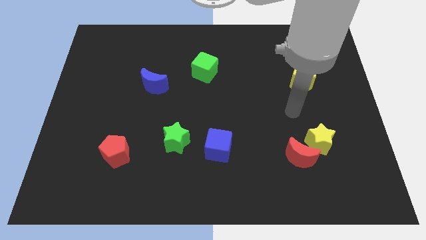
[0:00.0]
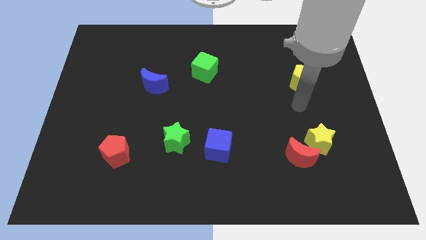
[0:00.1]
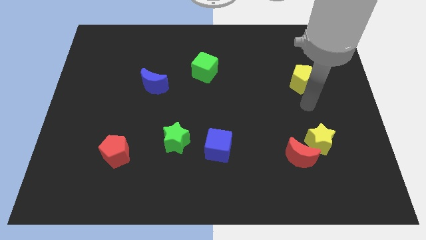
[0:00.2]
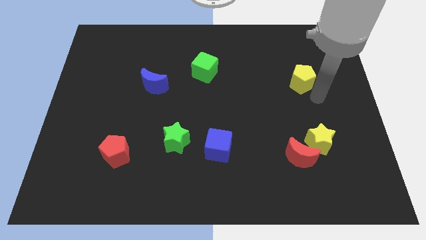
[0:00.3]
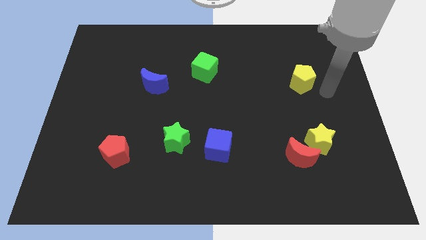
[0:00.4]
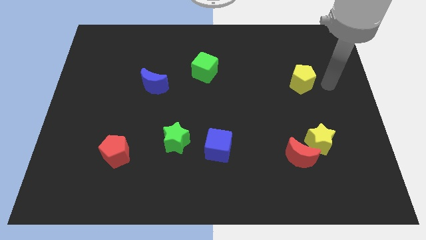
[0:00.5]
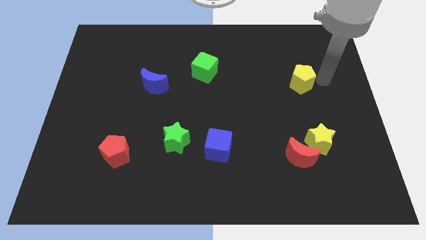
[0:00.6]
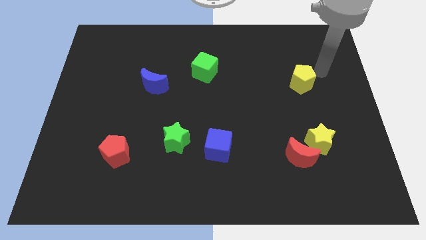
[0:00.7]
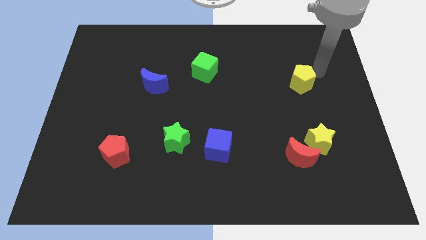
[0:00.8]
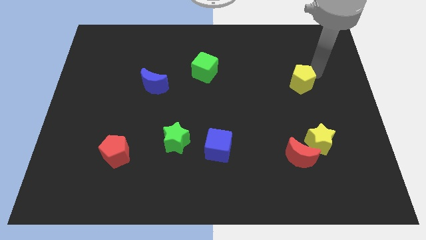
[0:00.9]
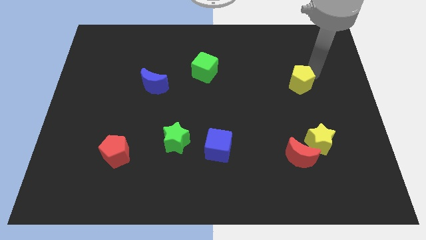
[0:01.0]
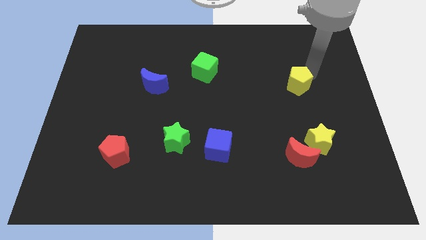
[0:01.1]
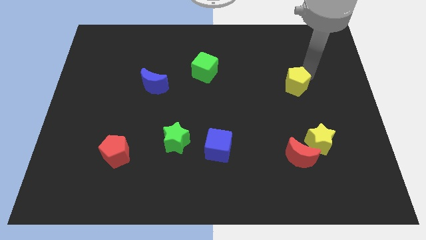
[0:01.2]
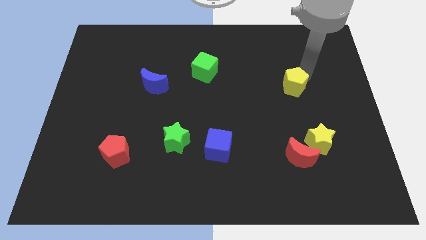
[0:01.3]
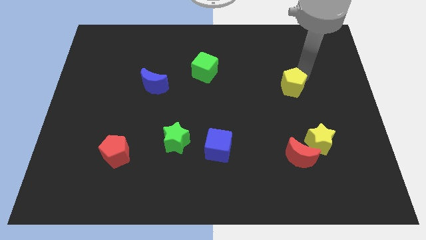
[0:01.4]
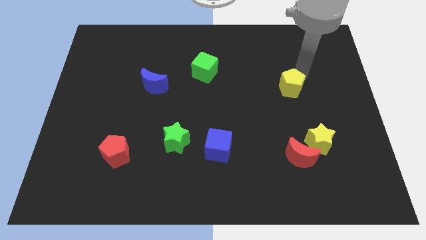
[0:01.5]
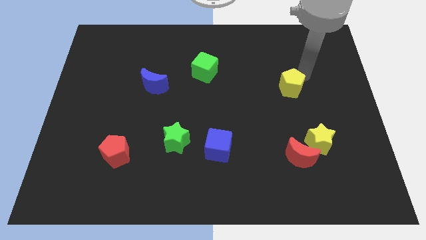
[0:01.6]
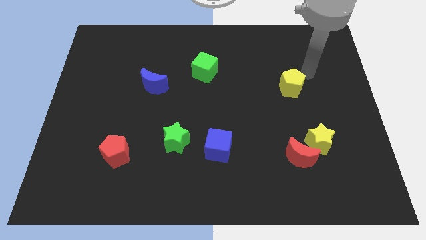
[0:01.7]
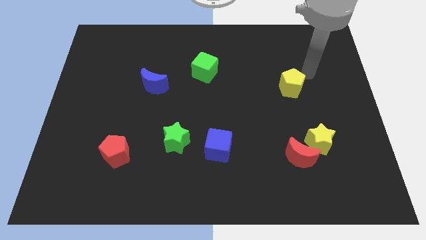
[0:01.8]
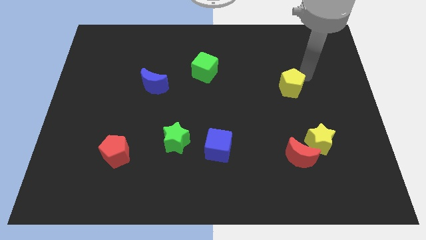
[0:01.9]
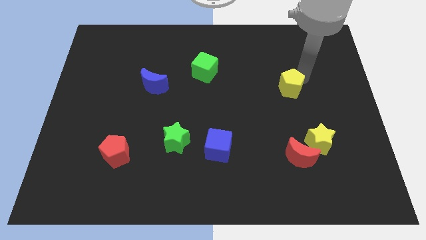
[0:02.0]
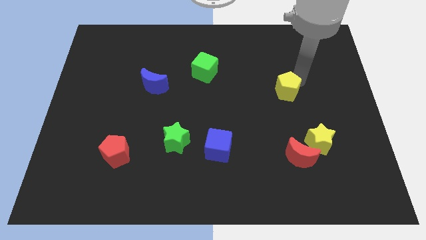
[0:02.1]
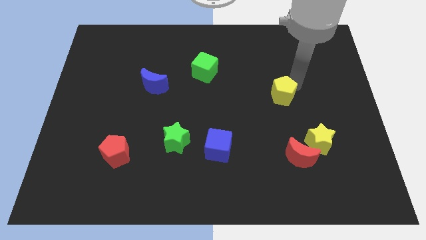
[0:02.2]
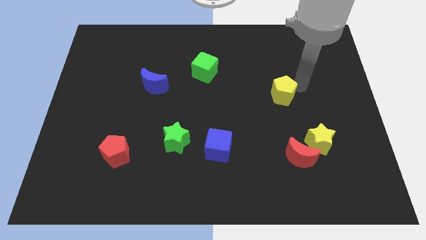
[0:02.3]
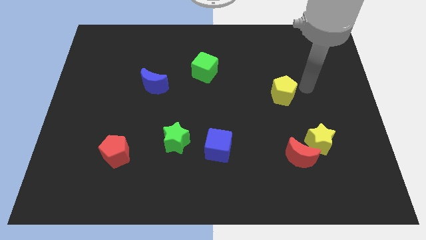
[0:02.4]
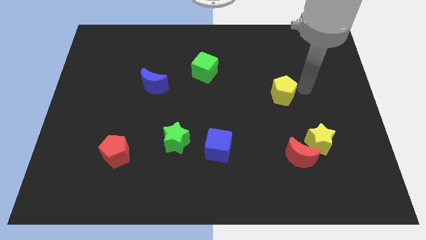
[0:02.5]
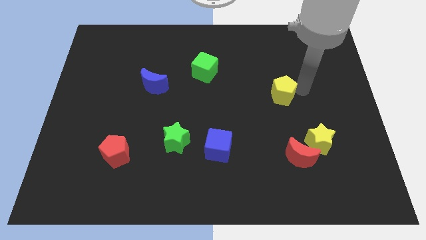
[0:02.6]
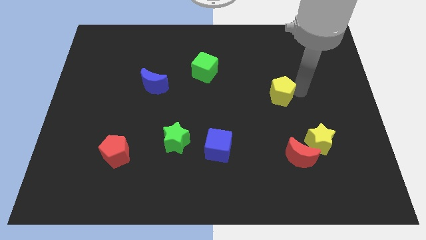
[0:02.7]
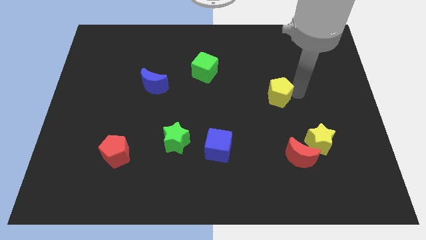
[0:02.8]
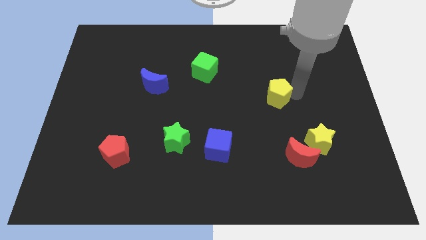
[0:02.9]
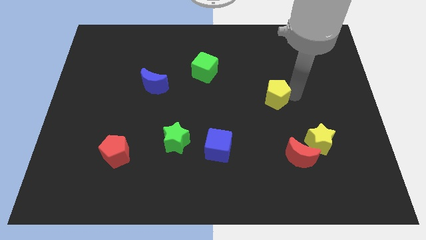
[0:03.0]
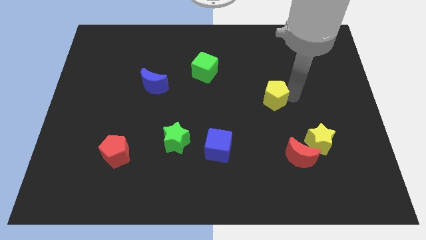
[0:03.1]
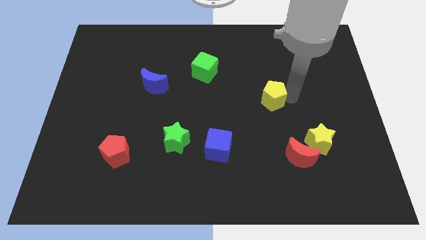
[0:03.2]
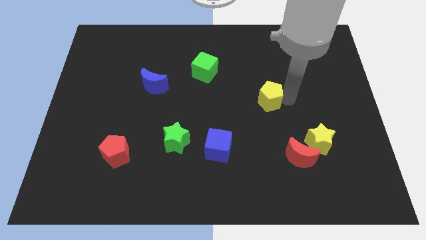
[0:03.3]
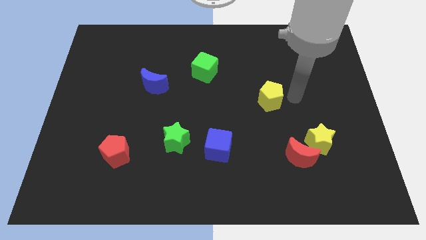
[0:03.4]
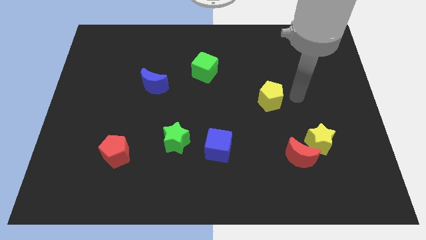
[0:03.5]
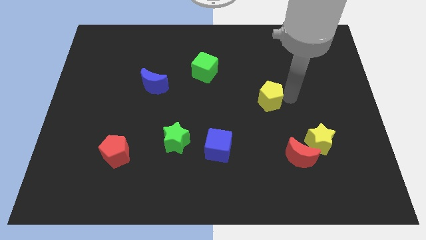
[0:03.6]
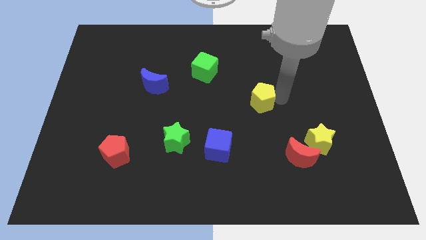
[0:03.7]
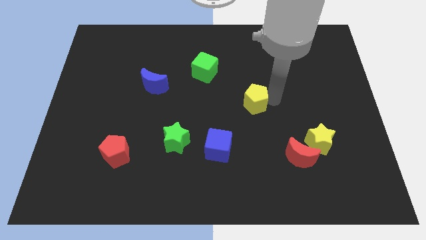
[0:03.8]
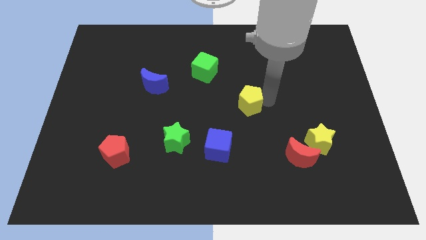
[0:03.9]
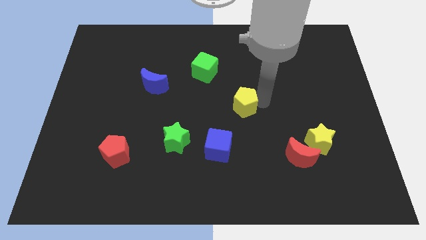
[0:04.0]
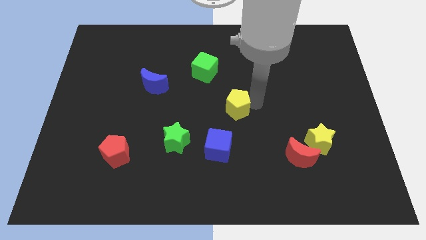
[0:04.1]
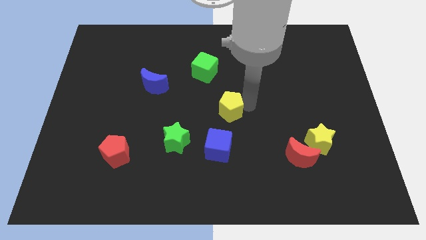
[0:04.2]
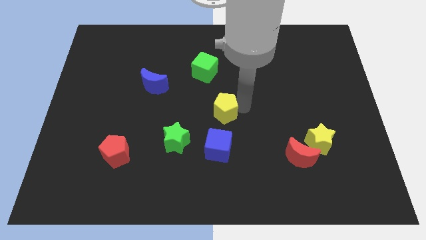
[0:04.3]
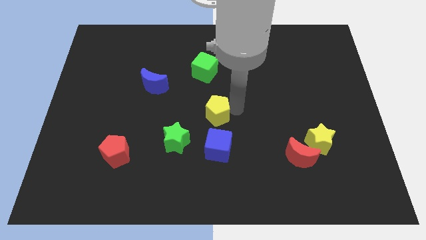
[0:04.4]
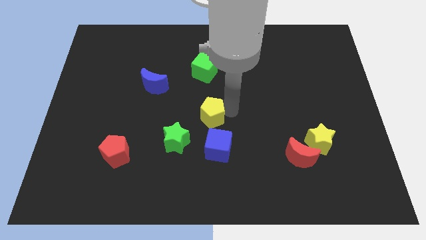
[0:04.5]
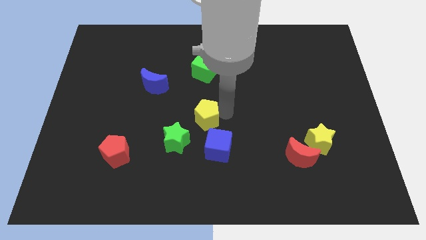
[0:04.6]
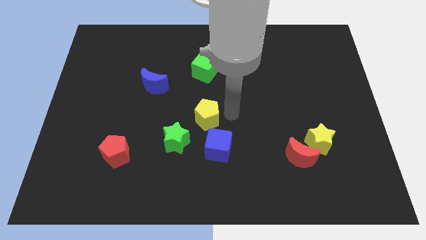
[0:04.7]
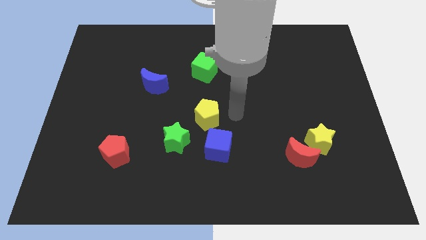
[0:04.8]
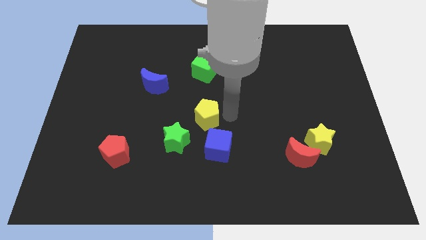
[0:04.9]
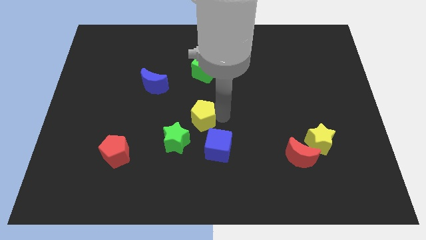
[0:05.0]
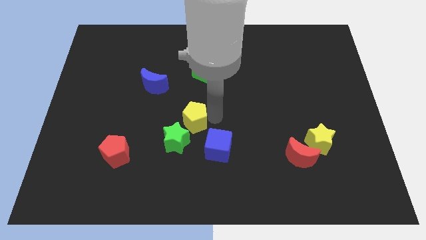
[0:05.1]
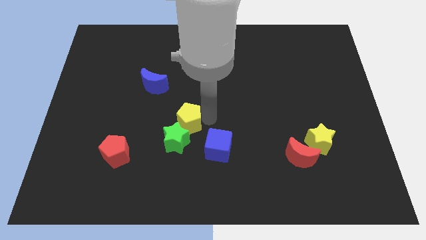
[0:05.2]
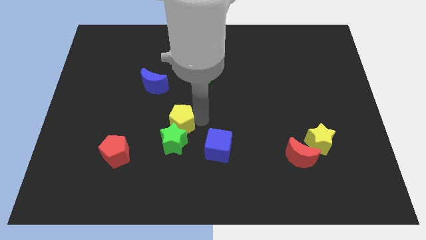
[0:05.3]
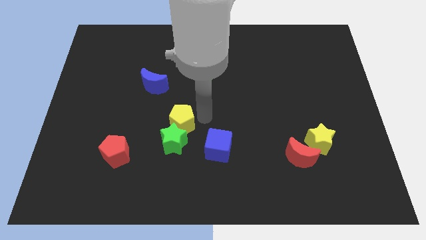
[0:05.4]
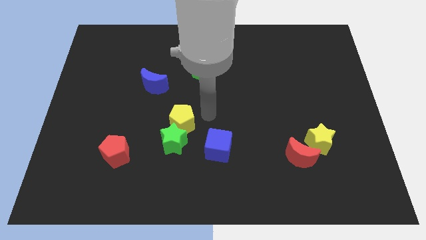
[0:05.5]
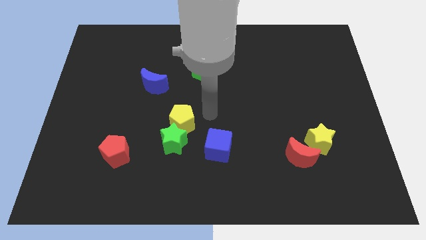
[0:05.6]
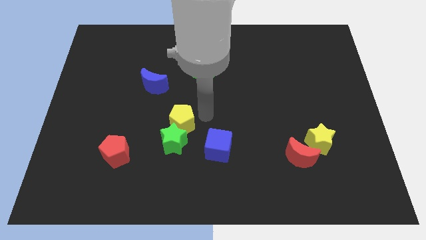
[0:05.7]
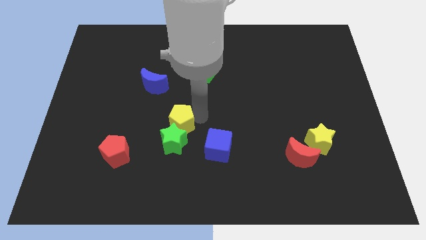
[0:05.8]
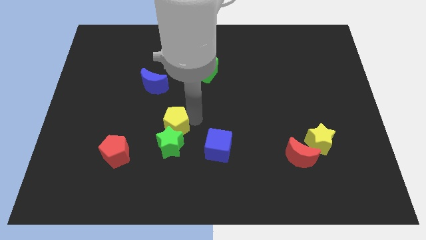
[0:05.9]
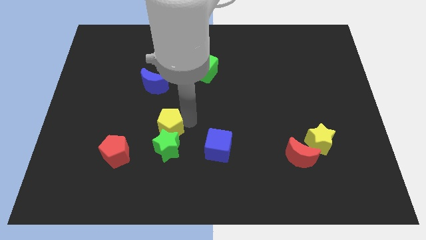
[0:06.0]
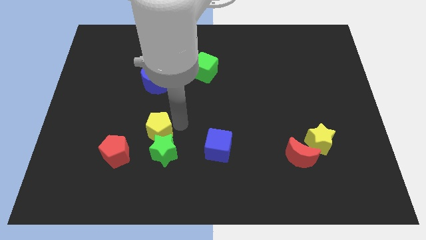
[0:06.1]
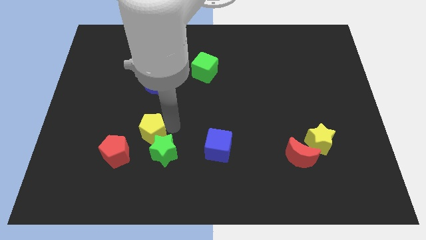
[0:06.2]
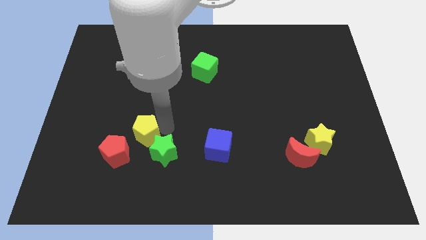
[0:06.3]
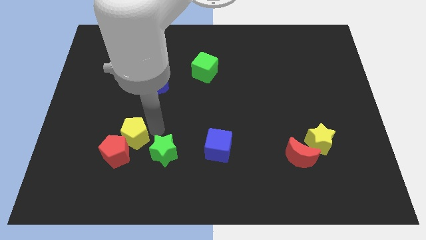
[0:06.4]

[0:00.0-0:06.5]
move the yellow pentagon close to the red pentagon
